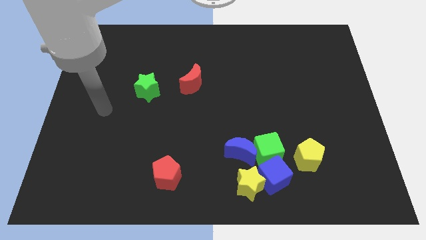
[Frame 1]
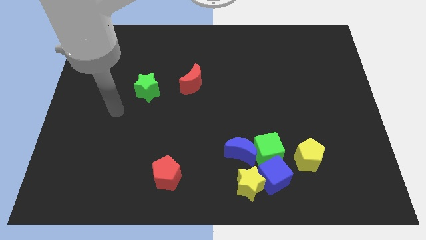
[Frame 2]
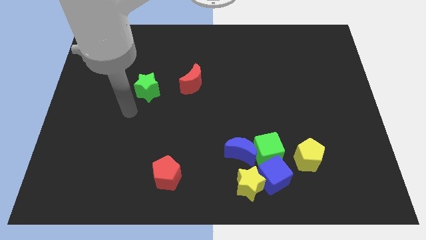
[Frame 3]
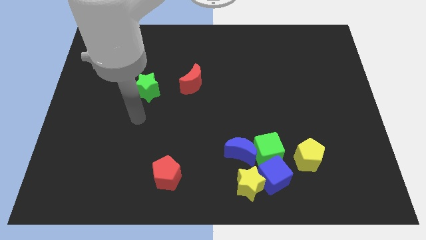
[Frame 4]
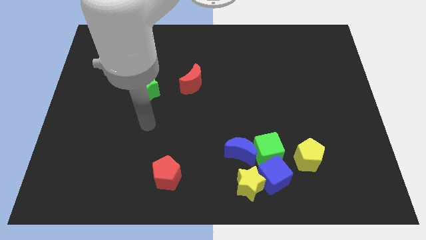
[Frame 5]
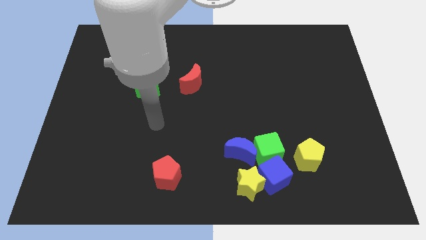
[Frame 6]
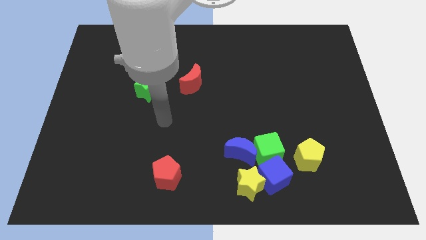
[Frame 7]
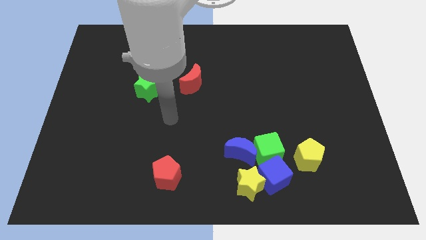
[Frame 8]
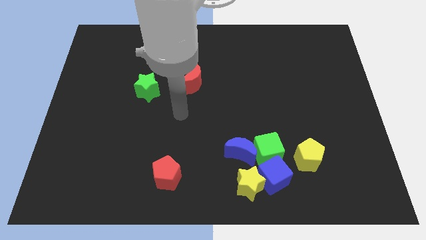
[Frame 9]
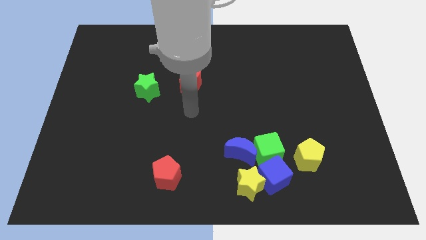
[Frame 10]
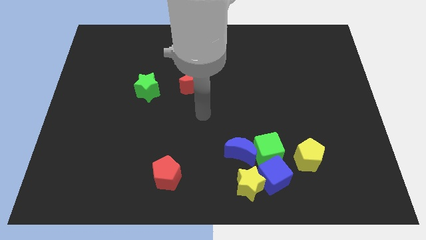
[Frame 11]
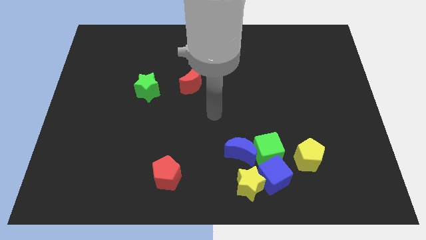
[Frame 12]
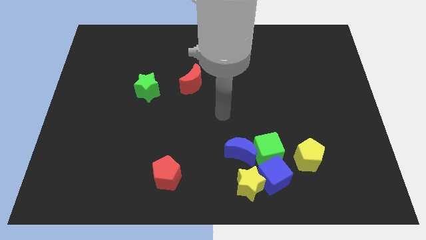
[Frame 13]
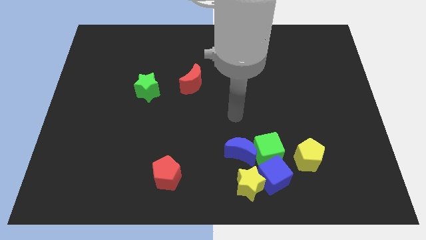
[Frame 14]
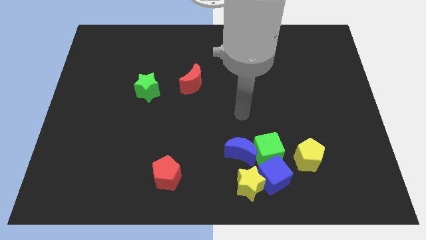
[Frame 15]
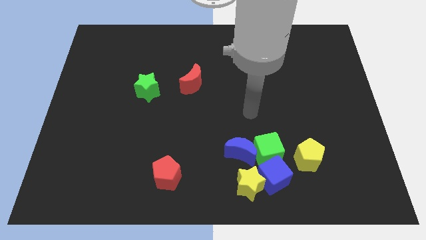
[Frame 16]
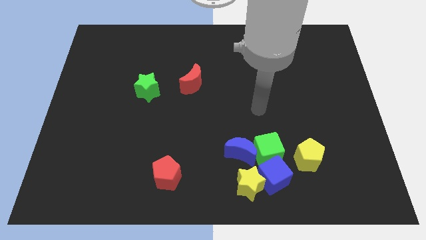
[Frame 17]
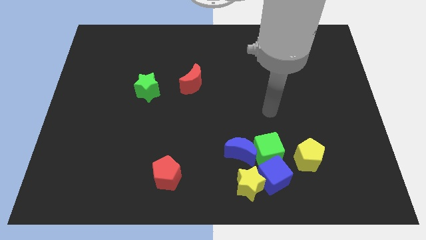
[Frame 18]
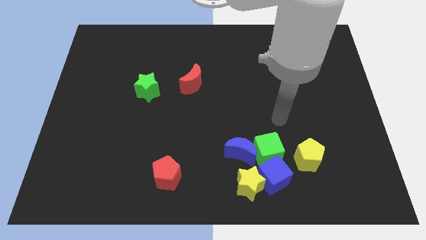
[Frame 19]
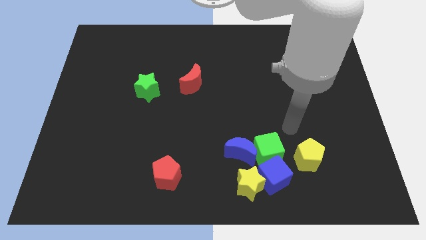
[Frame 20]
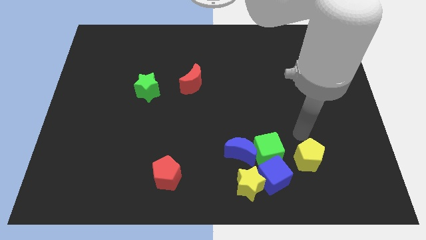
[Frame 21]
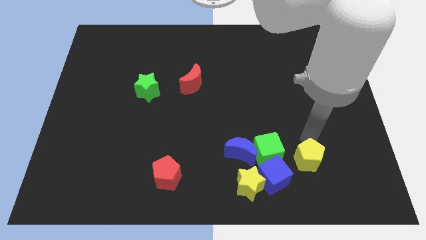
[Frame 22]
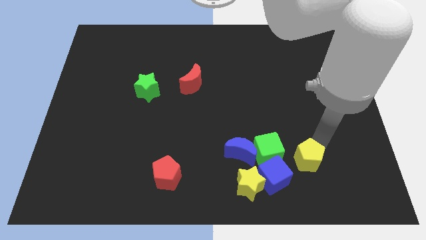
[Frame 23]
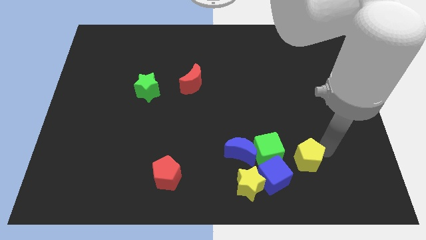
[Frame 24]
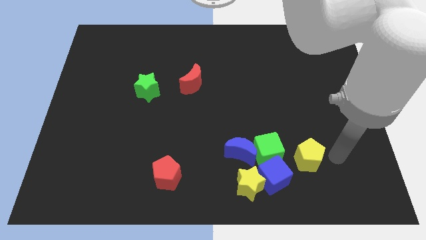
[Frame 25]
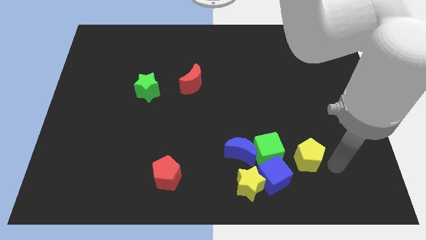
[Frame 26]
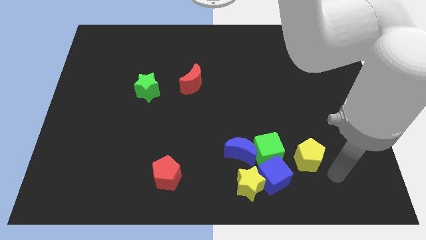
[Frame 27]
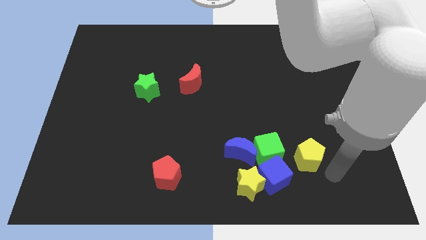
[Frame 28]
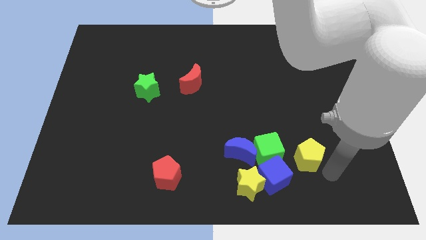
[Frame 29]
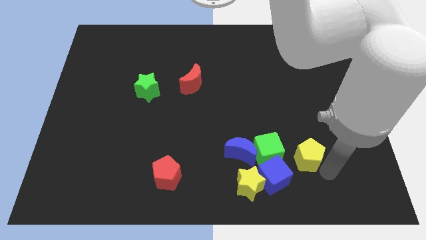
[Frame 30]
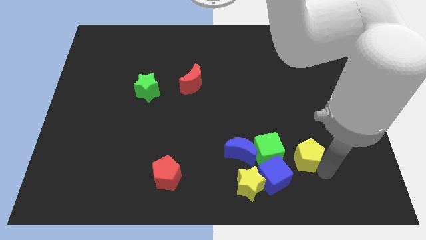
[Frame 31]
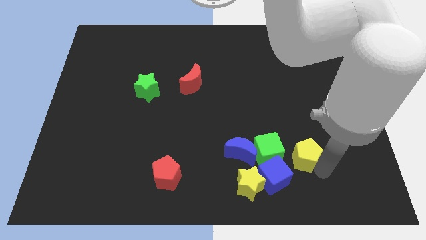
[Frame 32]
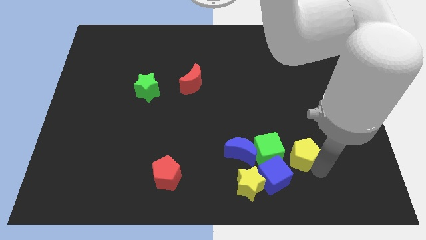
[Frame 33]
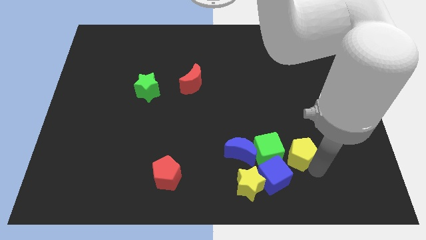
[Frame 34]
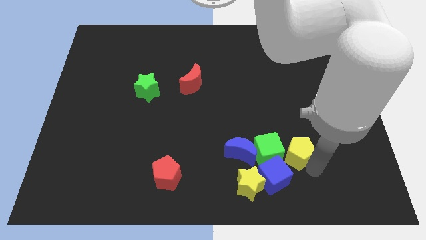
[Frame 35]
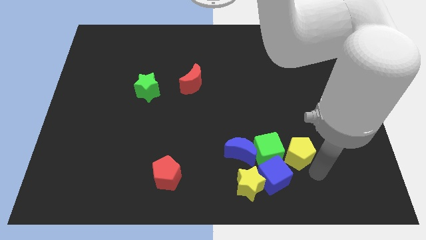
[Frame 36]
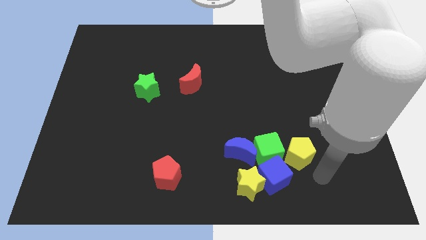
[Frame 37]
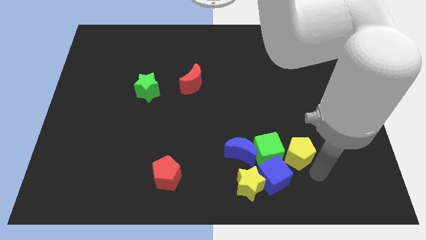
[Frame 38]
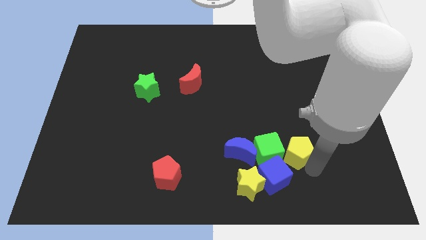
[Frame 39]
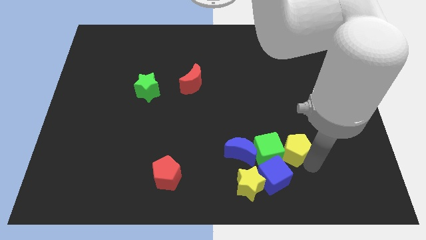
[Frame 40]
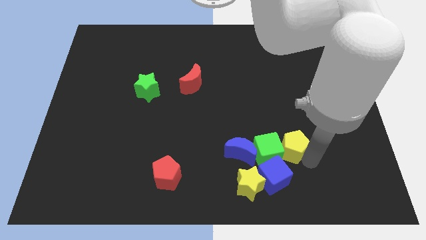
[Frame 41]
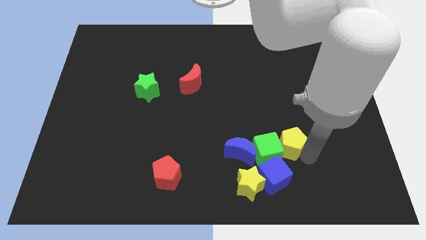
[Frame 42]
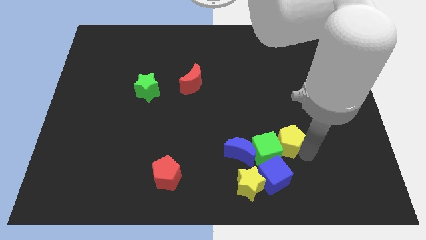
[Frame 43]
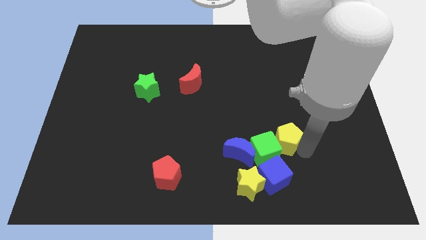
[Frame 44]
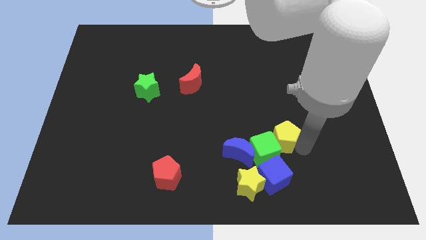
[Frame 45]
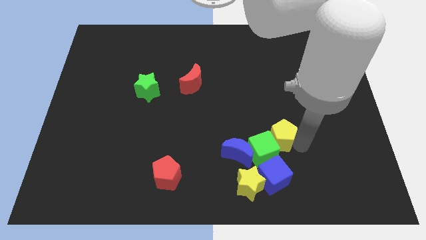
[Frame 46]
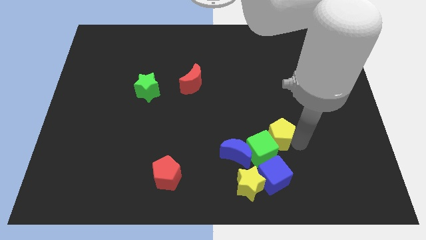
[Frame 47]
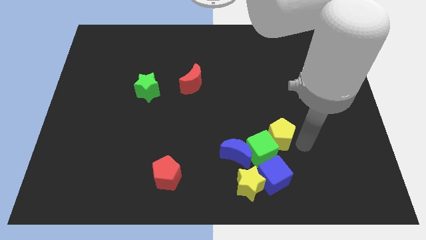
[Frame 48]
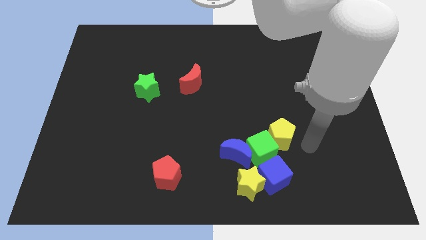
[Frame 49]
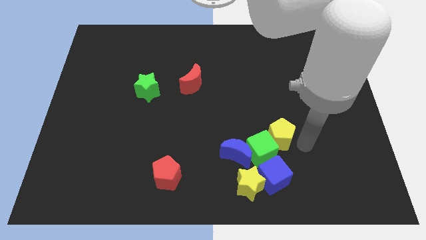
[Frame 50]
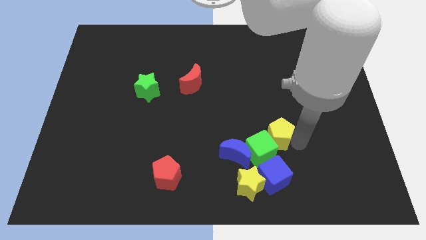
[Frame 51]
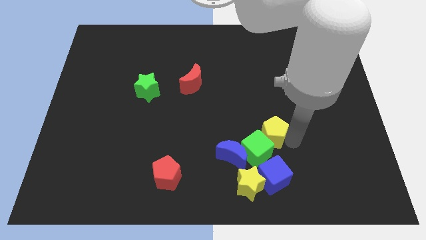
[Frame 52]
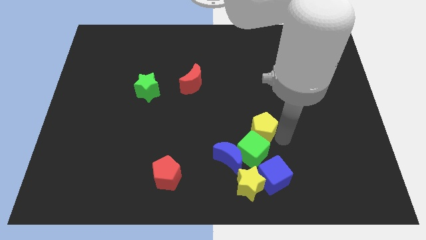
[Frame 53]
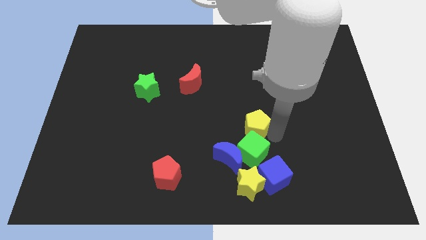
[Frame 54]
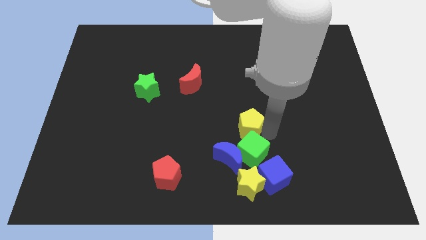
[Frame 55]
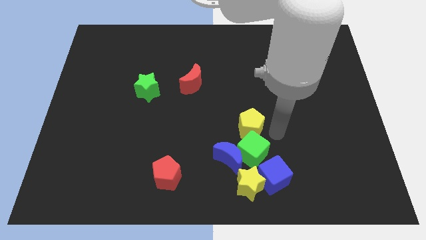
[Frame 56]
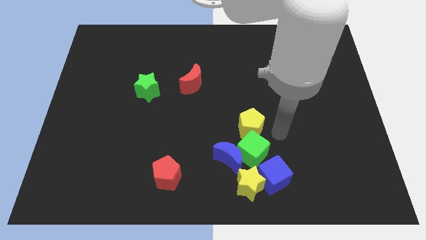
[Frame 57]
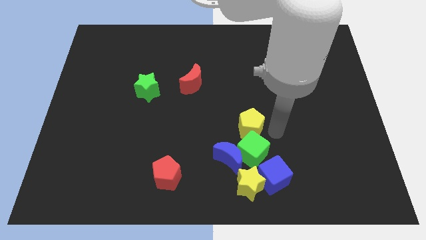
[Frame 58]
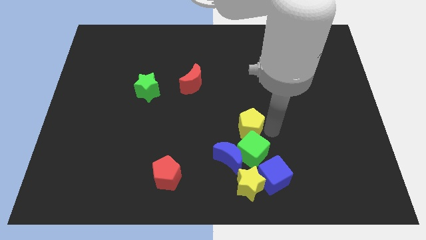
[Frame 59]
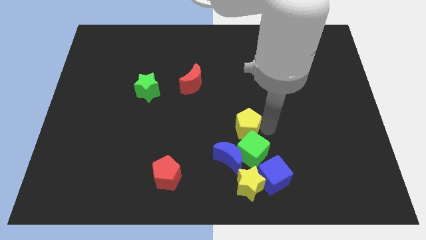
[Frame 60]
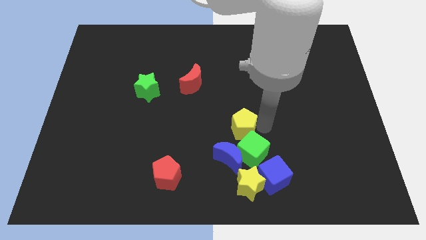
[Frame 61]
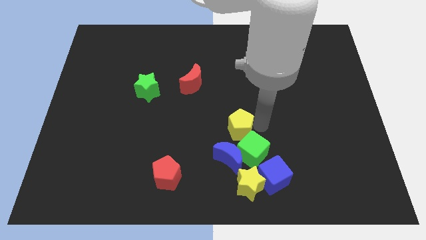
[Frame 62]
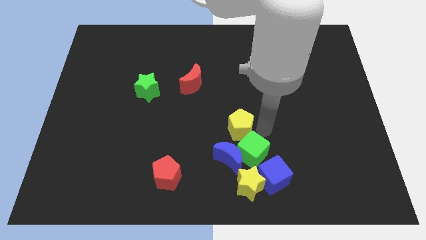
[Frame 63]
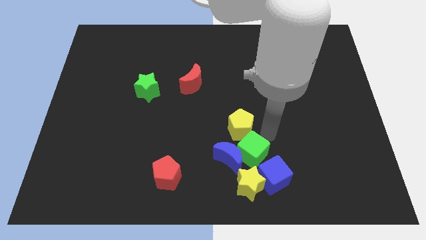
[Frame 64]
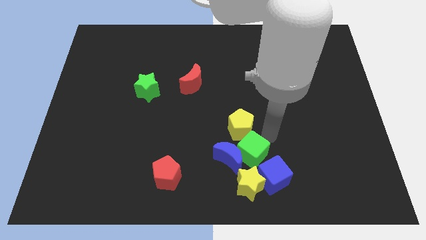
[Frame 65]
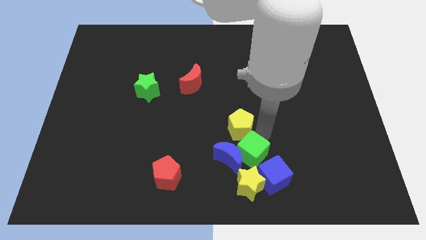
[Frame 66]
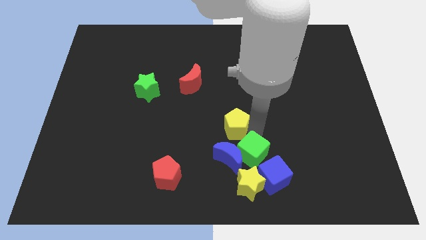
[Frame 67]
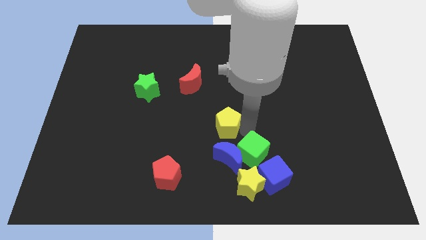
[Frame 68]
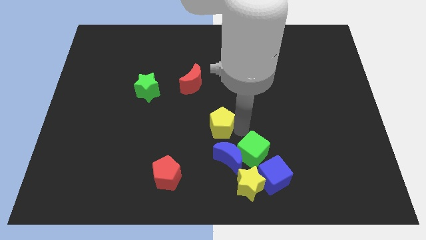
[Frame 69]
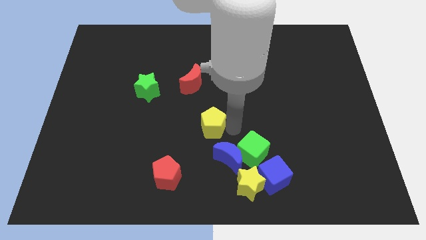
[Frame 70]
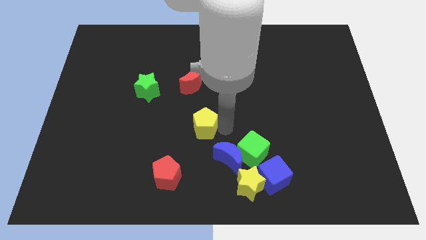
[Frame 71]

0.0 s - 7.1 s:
slide the yellow pentagon to the bottom side of the red moon

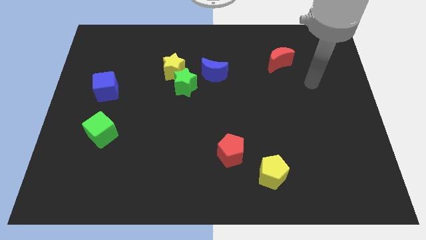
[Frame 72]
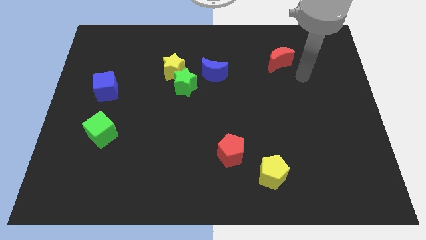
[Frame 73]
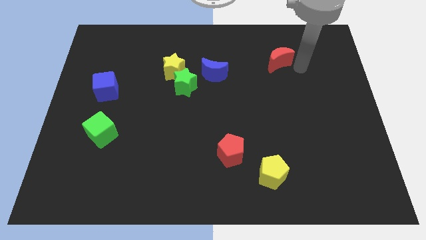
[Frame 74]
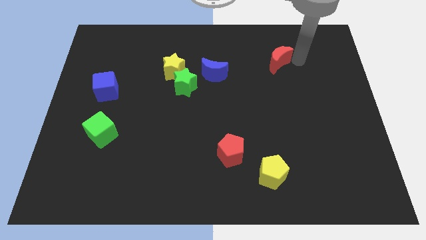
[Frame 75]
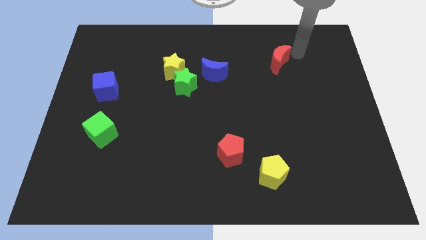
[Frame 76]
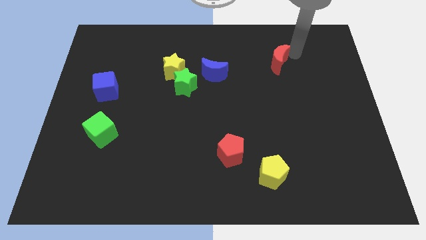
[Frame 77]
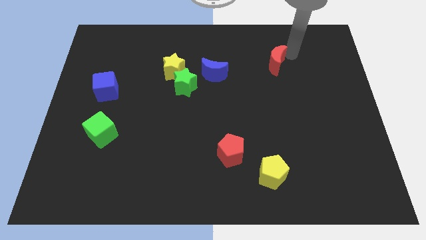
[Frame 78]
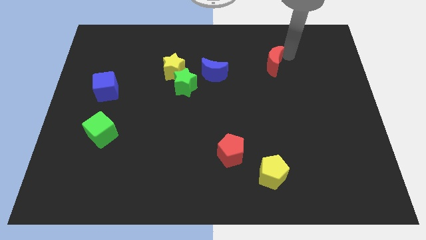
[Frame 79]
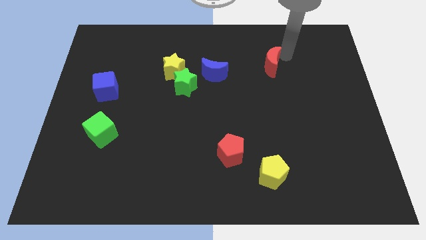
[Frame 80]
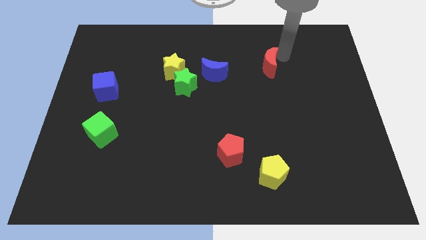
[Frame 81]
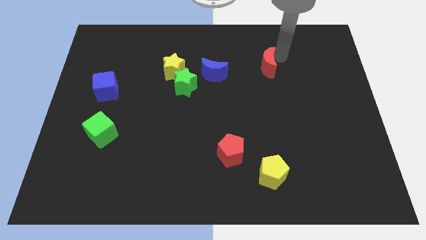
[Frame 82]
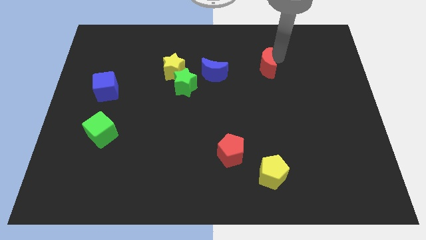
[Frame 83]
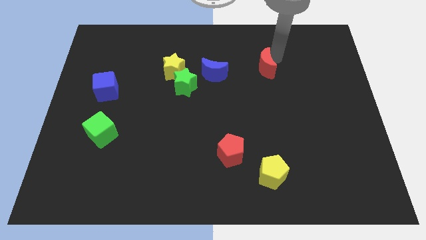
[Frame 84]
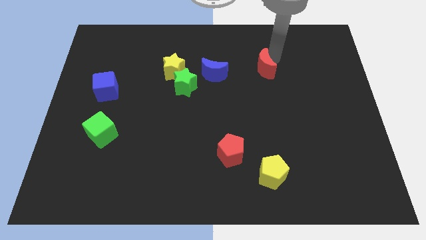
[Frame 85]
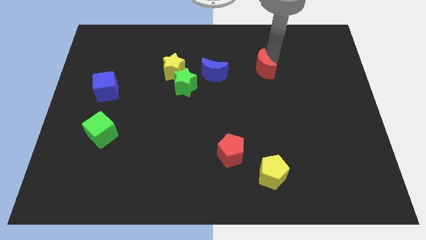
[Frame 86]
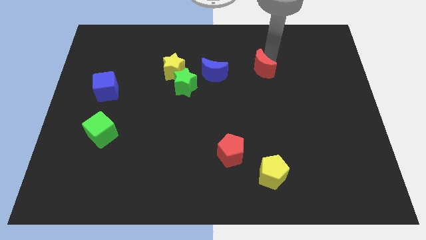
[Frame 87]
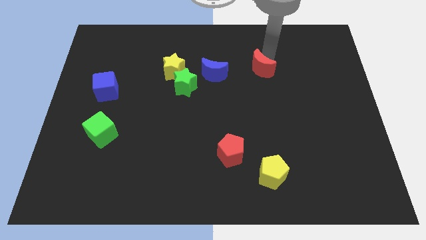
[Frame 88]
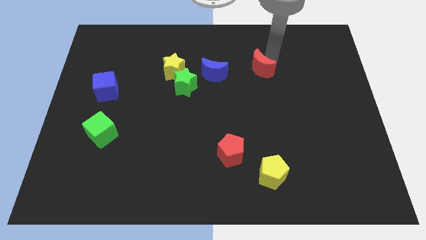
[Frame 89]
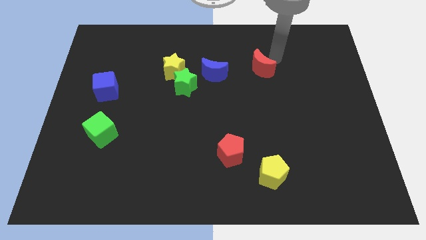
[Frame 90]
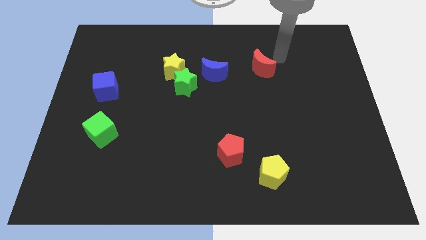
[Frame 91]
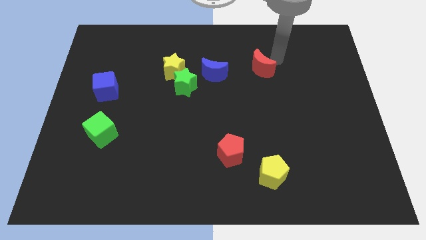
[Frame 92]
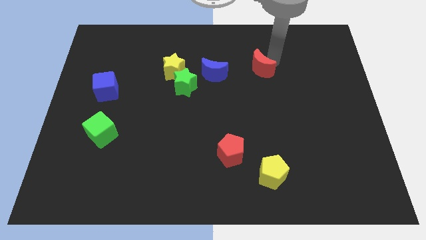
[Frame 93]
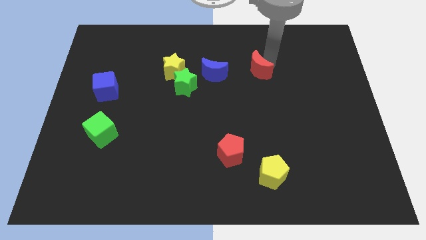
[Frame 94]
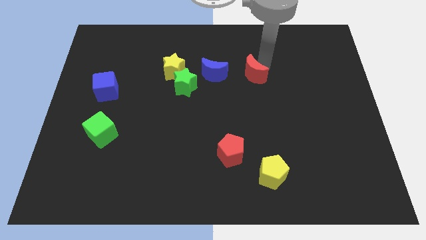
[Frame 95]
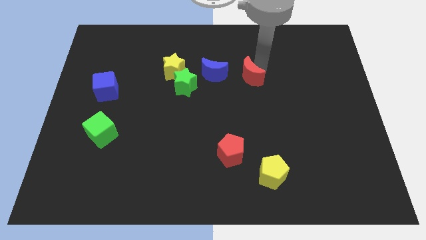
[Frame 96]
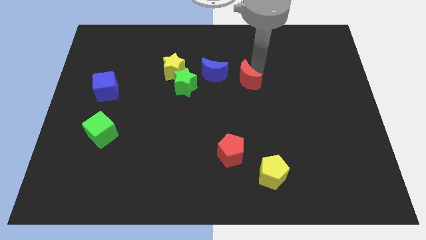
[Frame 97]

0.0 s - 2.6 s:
put the red moon to the right side of the green star
